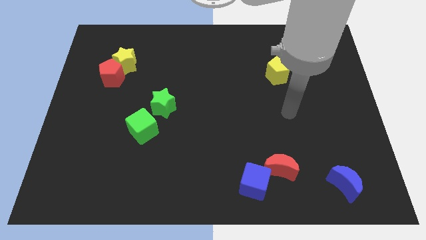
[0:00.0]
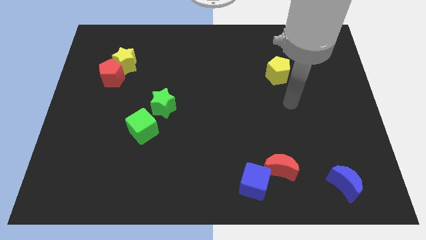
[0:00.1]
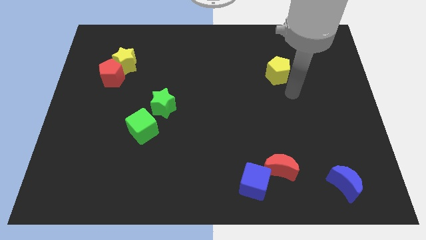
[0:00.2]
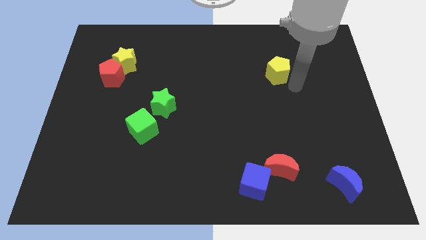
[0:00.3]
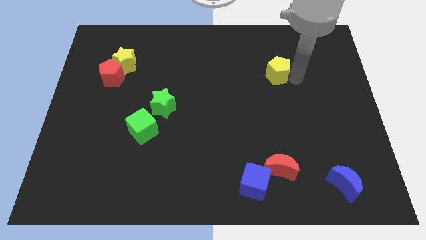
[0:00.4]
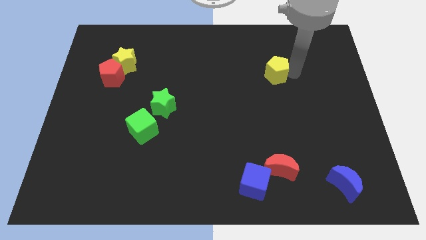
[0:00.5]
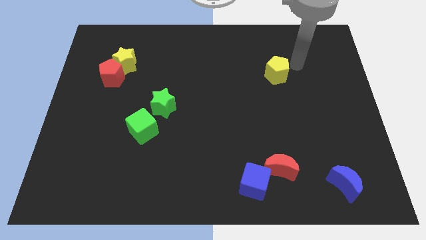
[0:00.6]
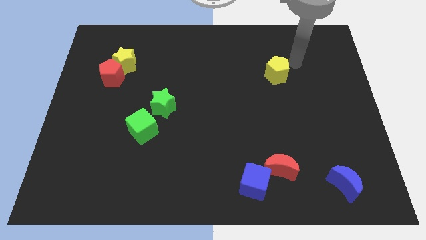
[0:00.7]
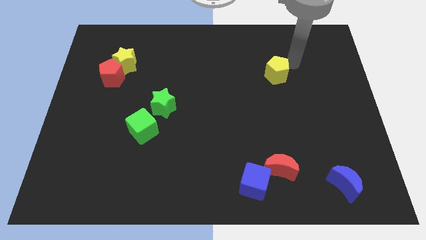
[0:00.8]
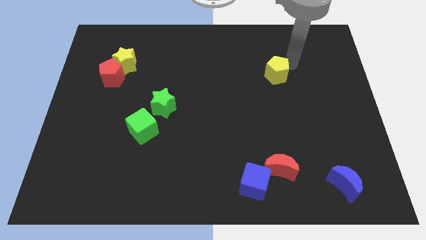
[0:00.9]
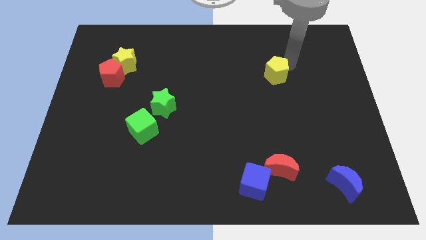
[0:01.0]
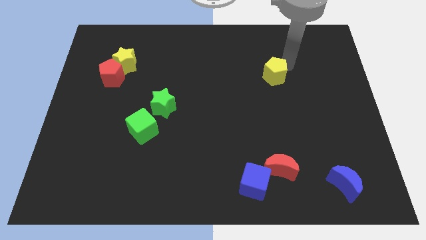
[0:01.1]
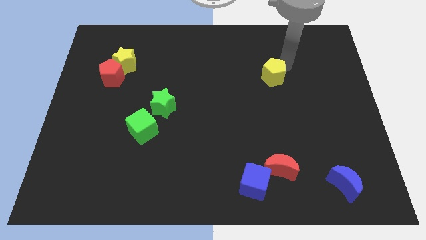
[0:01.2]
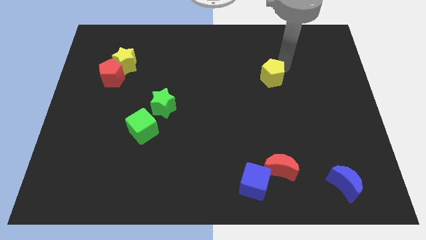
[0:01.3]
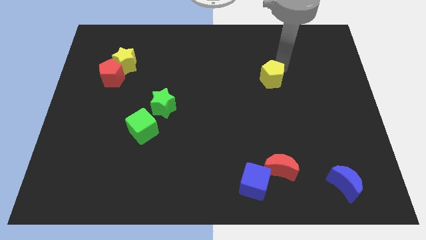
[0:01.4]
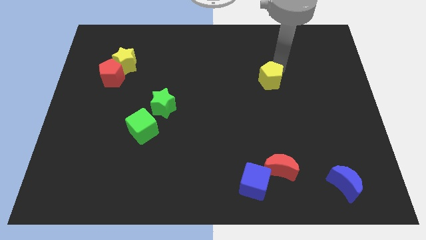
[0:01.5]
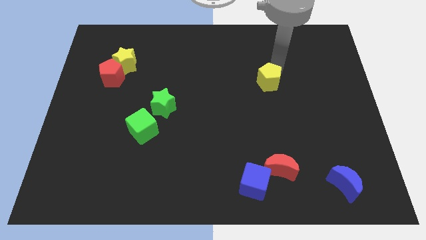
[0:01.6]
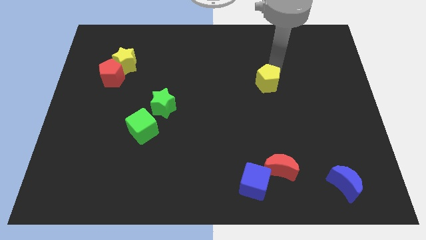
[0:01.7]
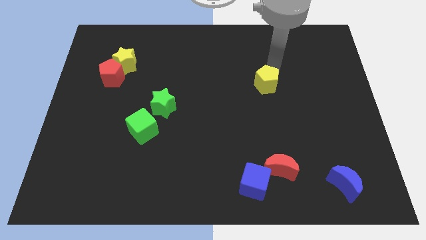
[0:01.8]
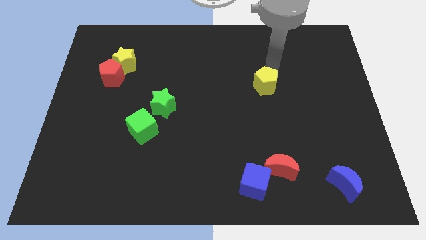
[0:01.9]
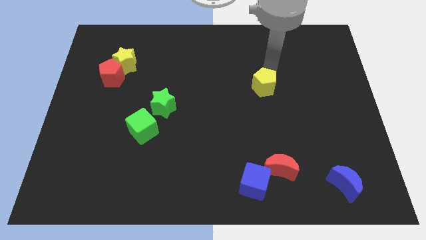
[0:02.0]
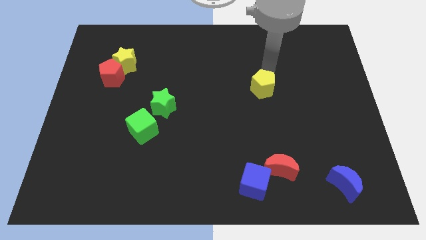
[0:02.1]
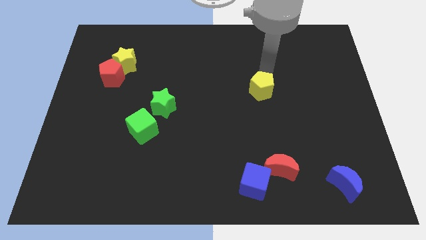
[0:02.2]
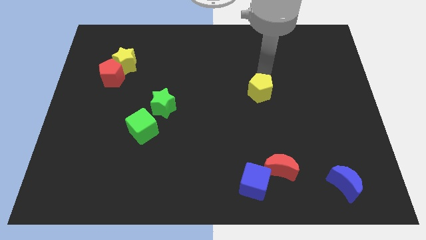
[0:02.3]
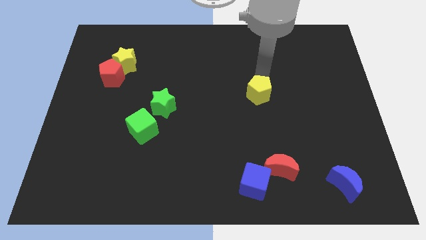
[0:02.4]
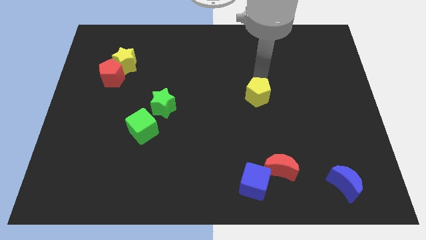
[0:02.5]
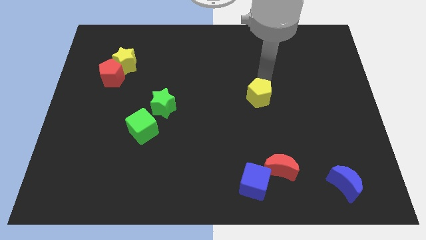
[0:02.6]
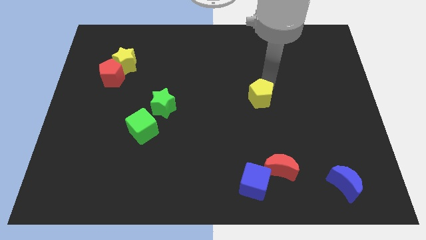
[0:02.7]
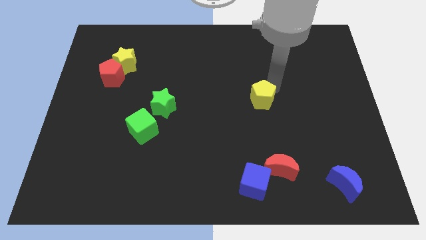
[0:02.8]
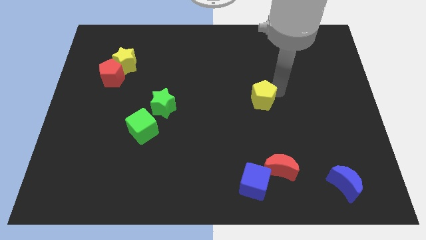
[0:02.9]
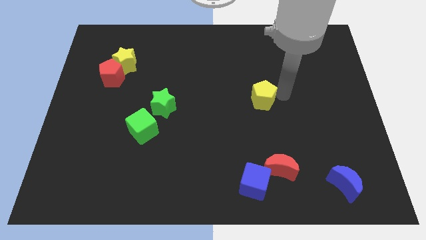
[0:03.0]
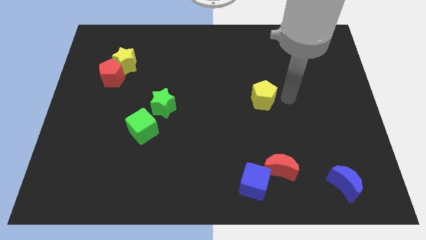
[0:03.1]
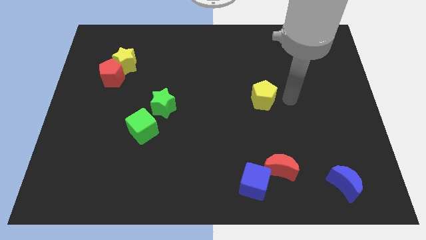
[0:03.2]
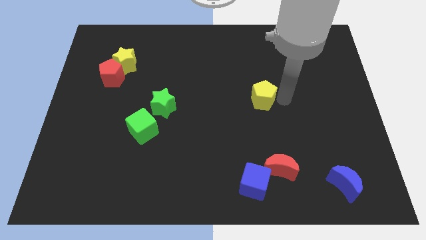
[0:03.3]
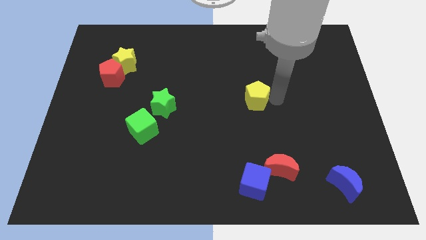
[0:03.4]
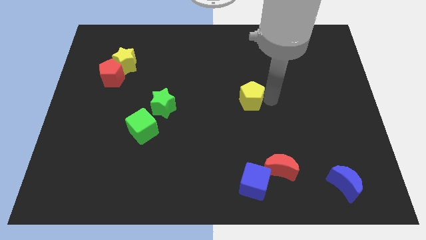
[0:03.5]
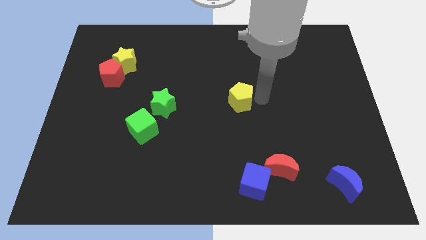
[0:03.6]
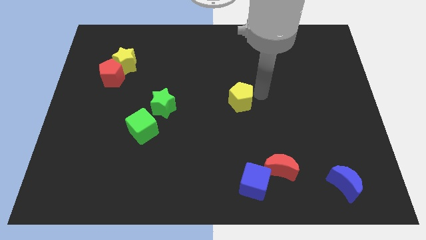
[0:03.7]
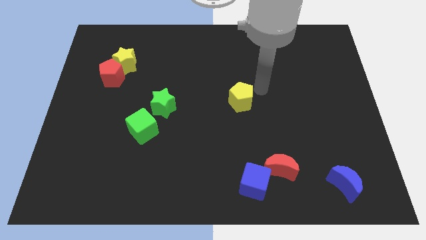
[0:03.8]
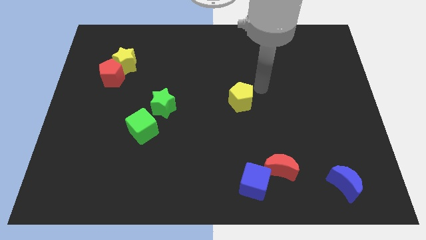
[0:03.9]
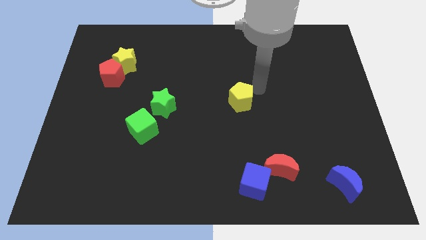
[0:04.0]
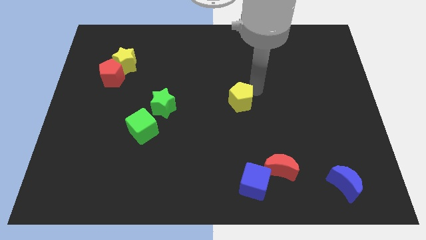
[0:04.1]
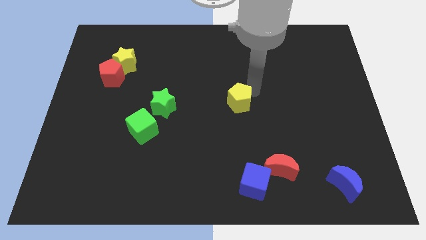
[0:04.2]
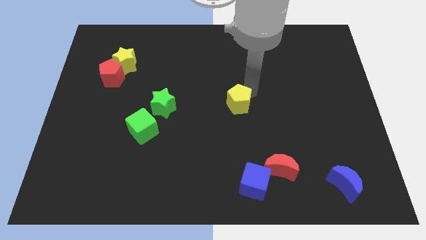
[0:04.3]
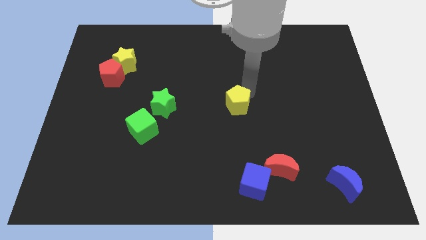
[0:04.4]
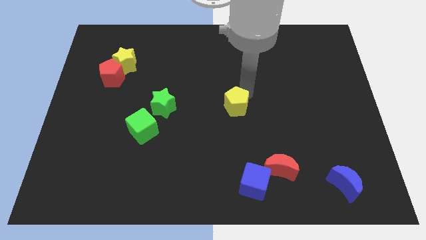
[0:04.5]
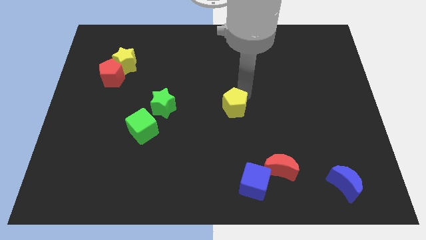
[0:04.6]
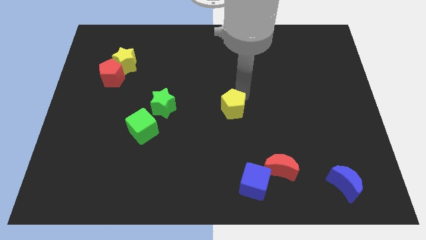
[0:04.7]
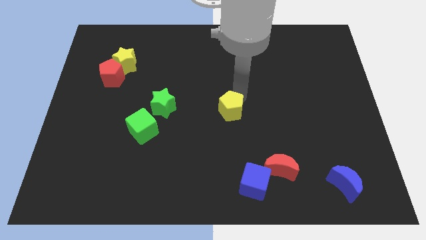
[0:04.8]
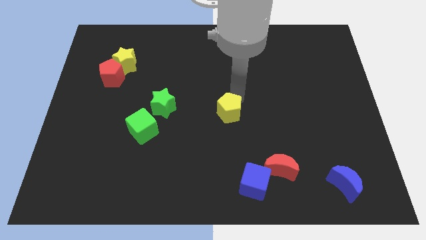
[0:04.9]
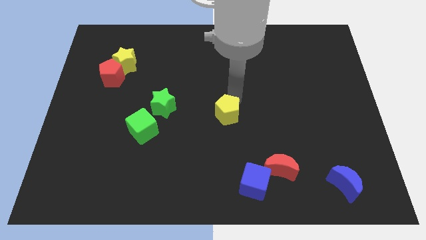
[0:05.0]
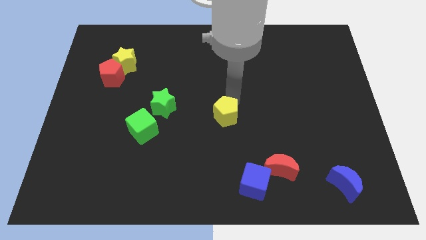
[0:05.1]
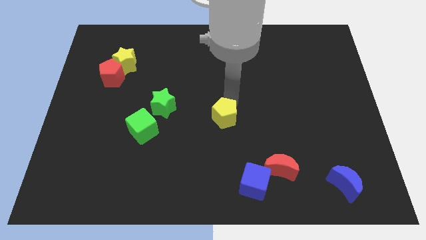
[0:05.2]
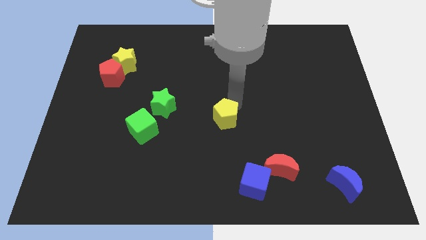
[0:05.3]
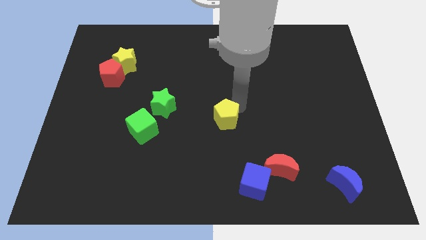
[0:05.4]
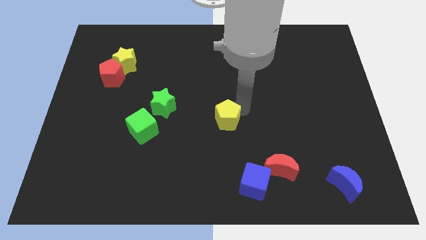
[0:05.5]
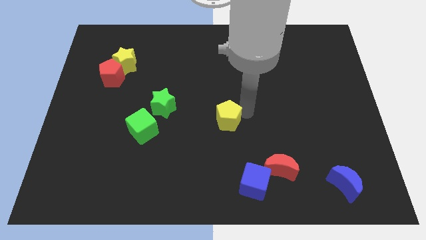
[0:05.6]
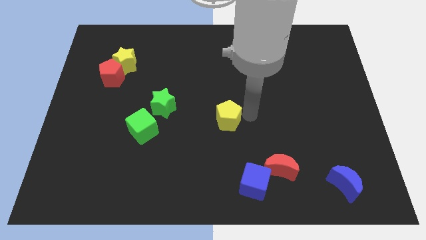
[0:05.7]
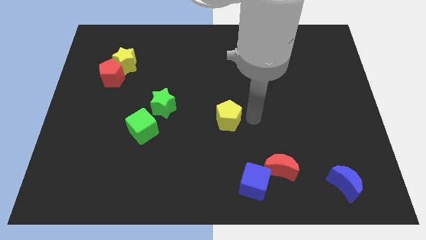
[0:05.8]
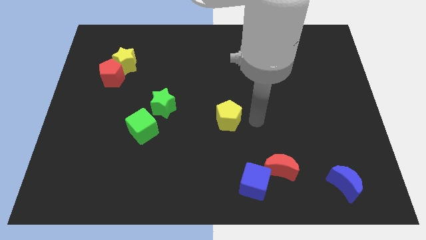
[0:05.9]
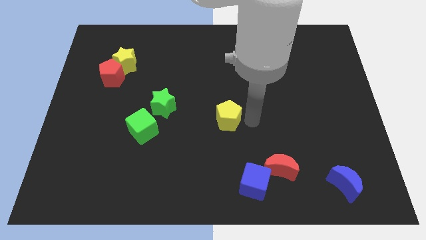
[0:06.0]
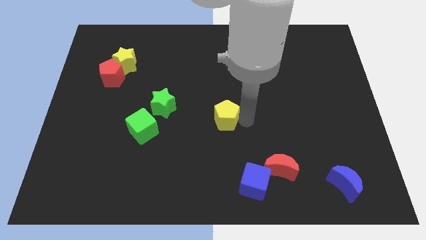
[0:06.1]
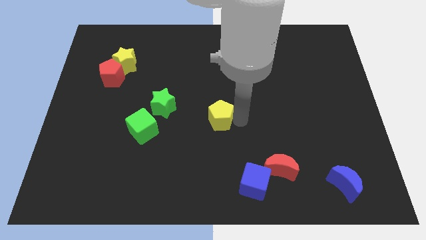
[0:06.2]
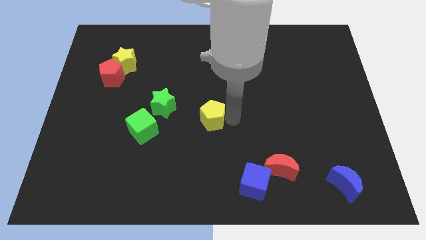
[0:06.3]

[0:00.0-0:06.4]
move the yellow pentagon right of the green cube
